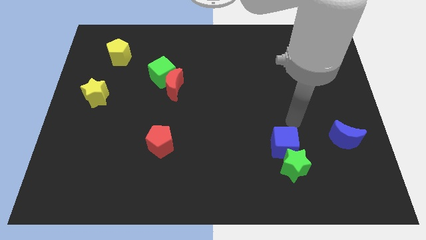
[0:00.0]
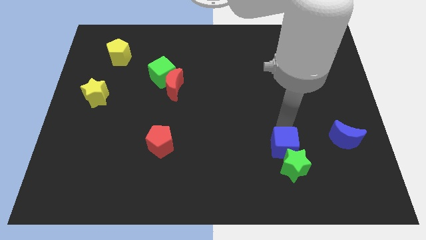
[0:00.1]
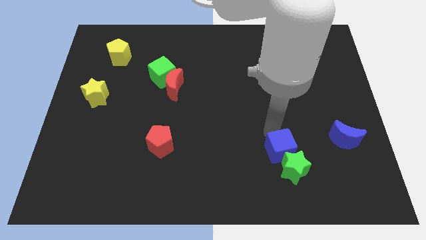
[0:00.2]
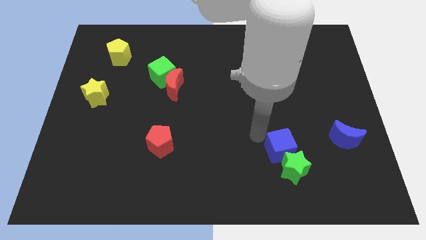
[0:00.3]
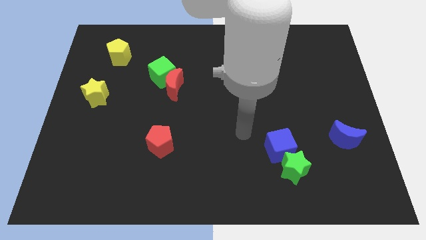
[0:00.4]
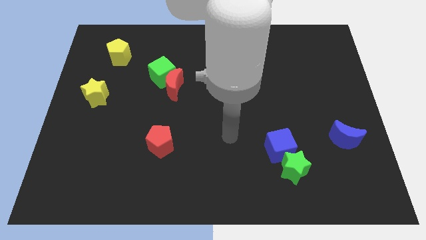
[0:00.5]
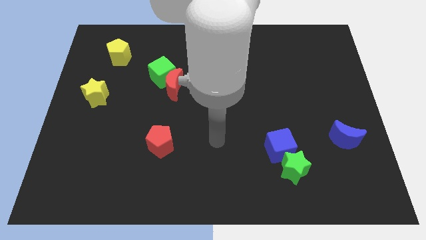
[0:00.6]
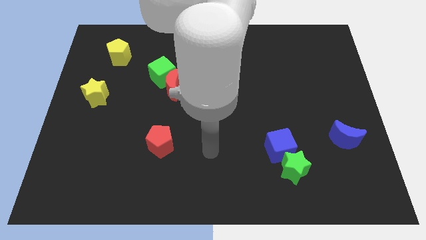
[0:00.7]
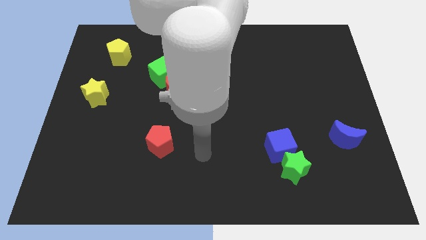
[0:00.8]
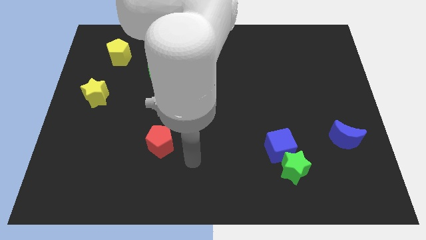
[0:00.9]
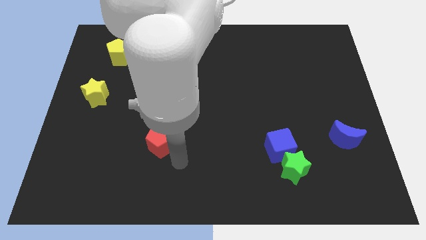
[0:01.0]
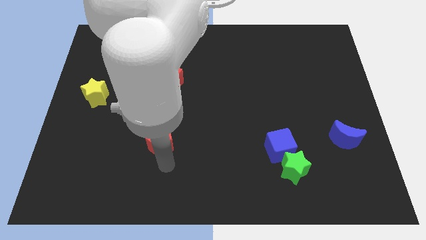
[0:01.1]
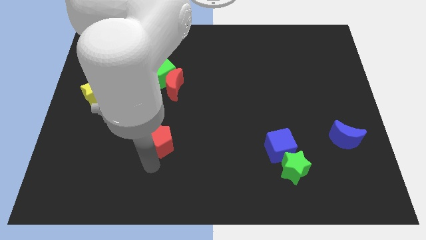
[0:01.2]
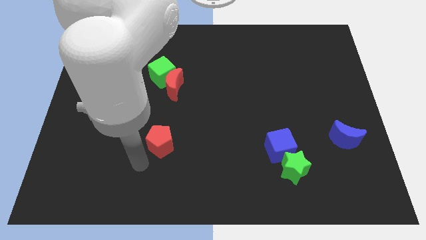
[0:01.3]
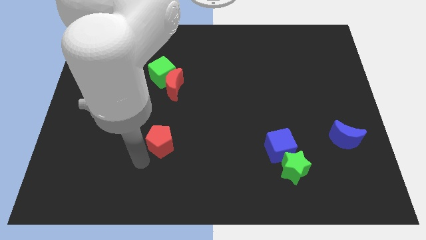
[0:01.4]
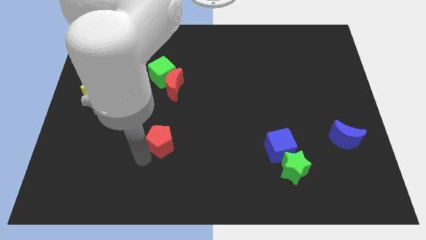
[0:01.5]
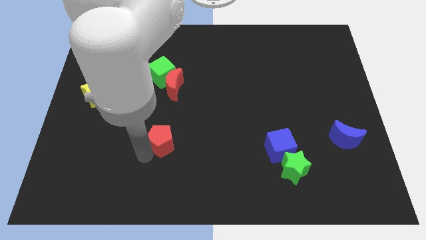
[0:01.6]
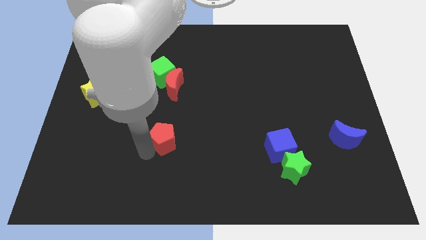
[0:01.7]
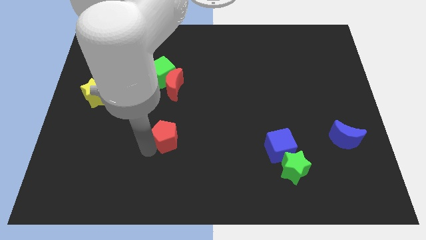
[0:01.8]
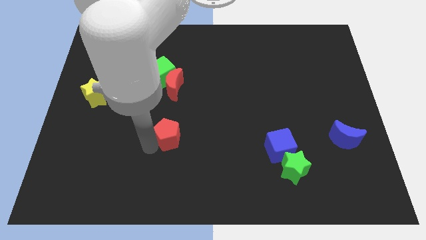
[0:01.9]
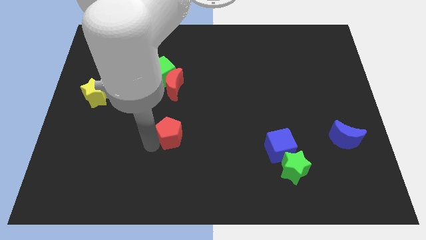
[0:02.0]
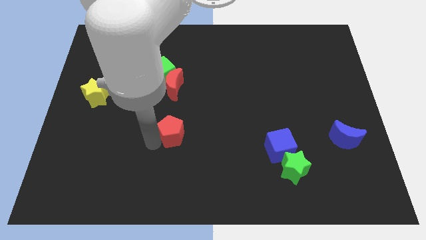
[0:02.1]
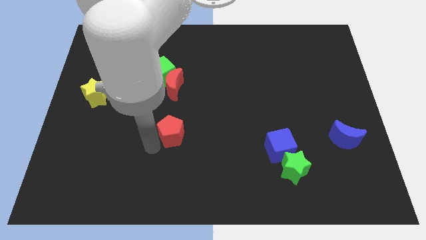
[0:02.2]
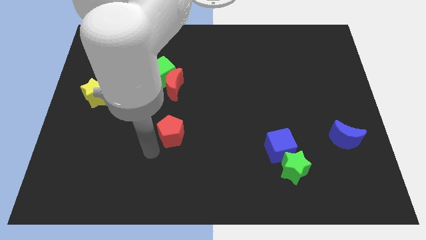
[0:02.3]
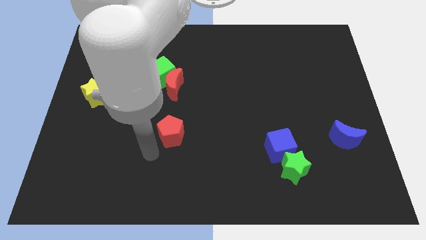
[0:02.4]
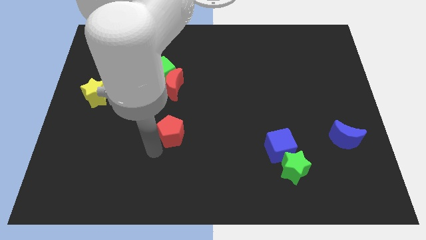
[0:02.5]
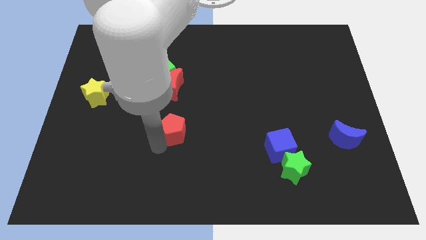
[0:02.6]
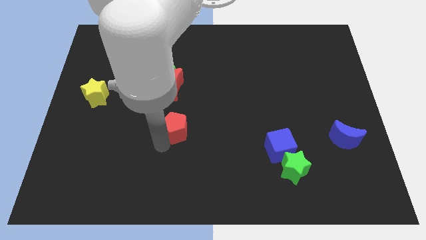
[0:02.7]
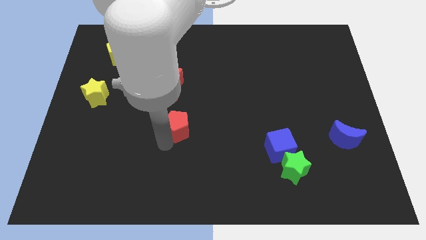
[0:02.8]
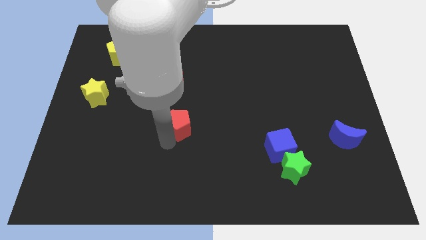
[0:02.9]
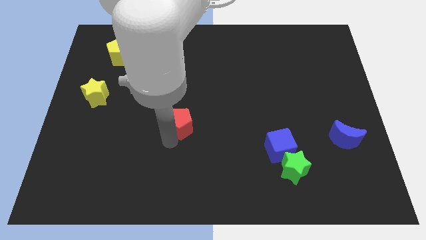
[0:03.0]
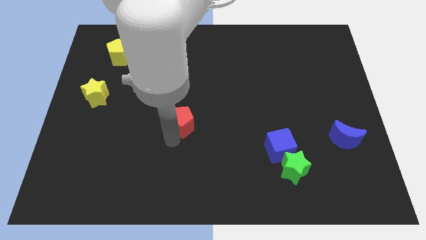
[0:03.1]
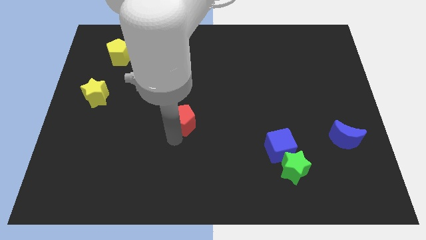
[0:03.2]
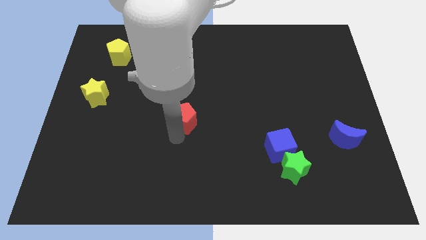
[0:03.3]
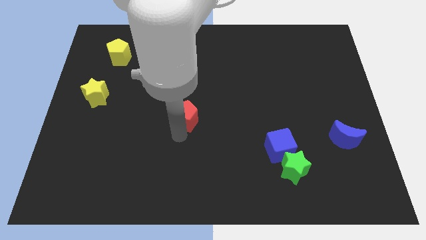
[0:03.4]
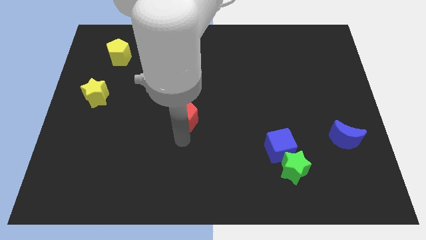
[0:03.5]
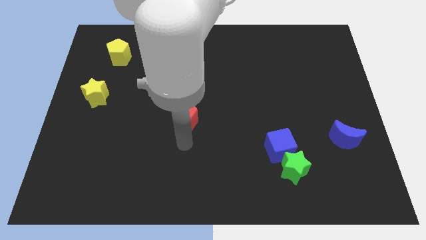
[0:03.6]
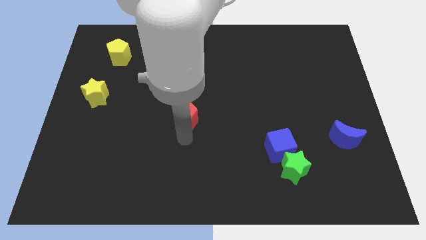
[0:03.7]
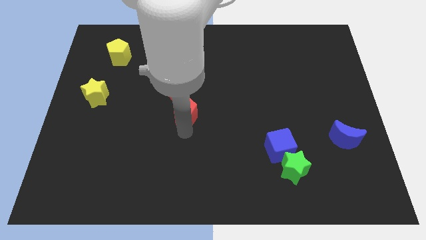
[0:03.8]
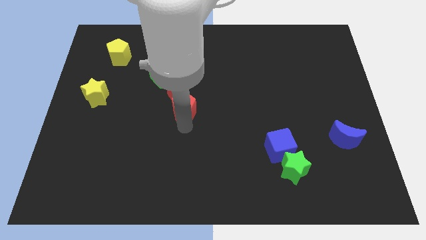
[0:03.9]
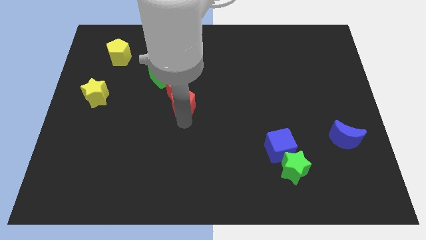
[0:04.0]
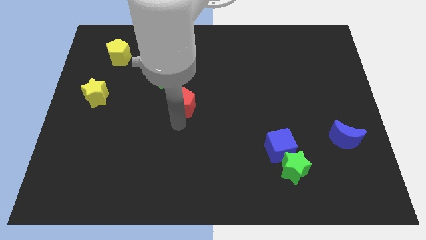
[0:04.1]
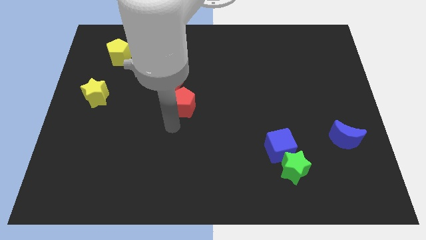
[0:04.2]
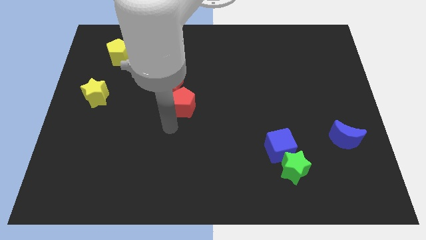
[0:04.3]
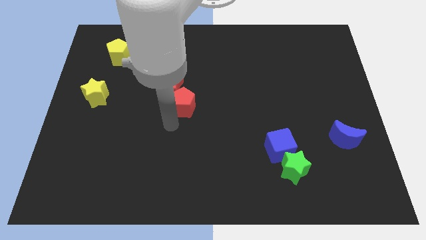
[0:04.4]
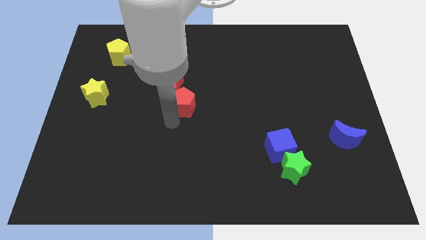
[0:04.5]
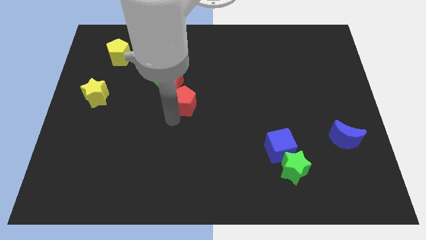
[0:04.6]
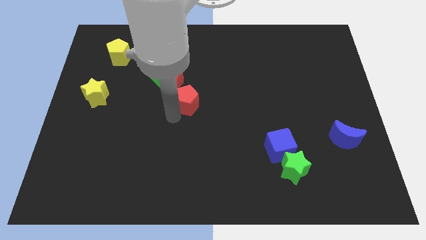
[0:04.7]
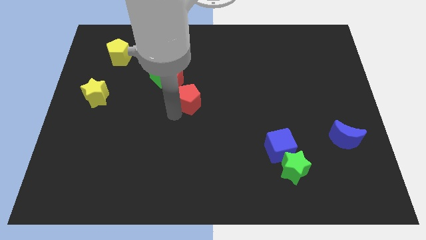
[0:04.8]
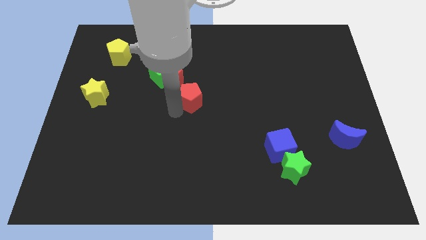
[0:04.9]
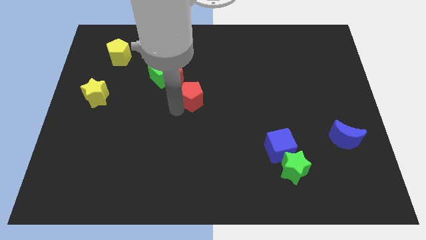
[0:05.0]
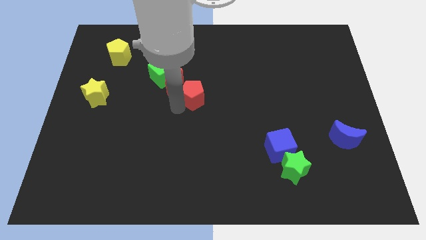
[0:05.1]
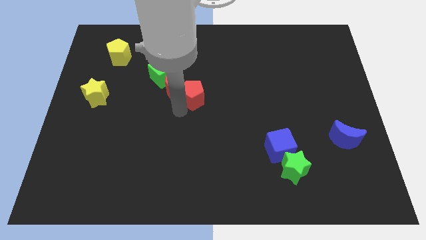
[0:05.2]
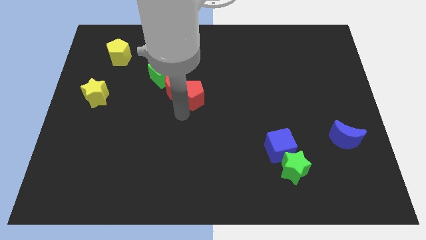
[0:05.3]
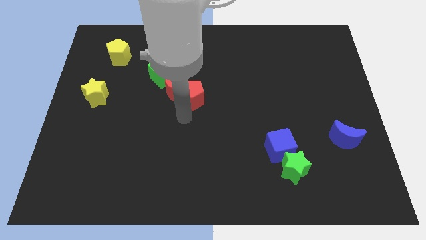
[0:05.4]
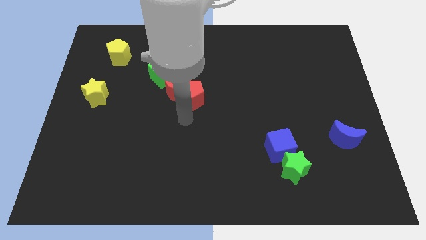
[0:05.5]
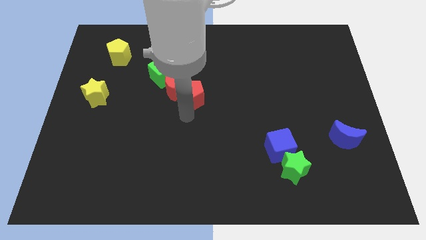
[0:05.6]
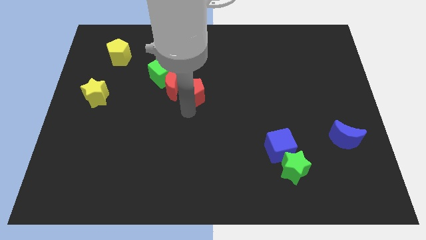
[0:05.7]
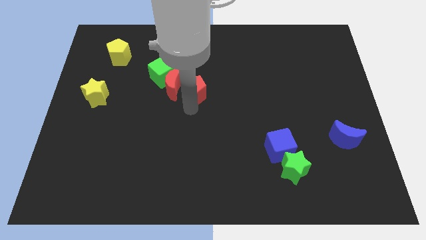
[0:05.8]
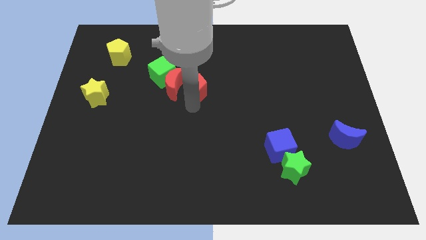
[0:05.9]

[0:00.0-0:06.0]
put the red pentagon to the top right of the red moon

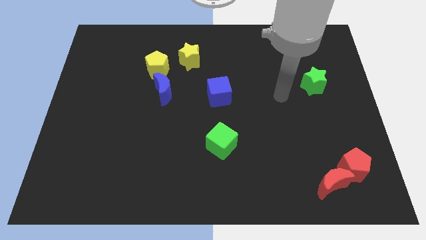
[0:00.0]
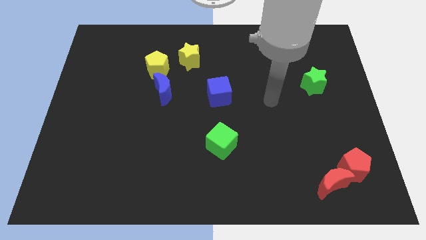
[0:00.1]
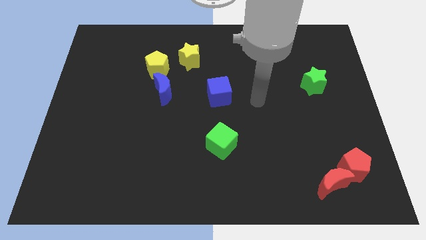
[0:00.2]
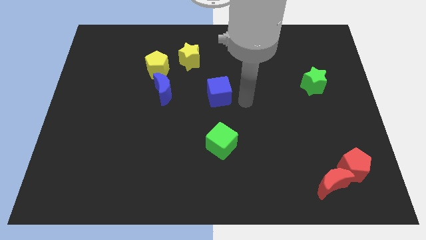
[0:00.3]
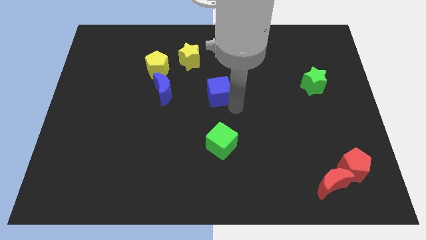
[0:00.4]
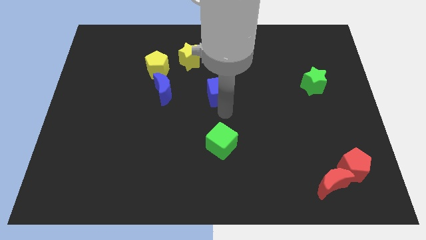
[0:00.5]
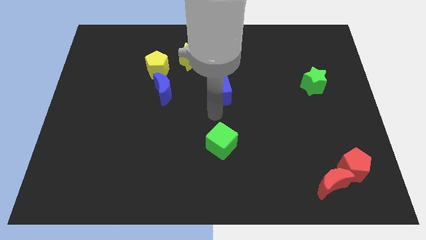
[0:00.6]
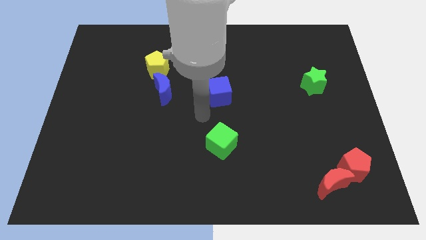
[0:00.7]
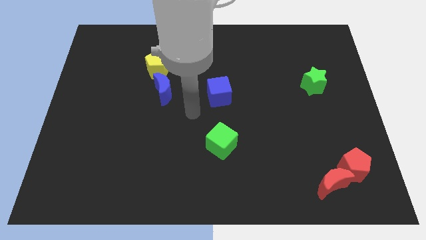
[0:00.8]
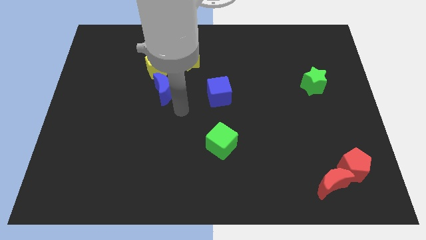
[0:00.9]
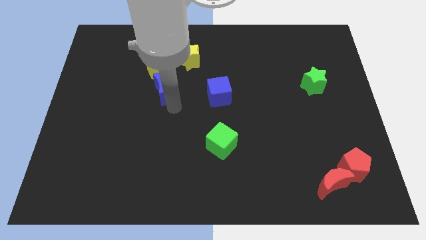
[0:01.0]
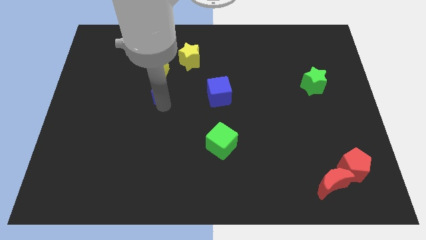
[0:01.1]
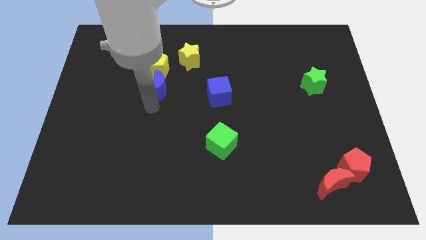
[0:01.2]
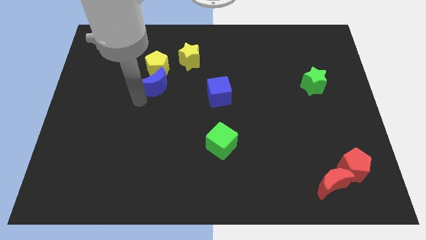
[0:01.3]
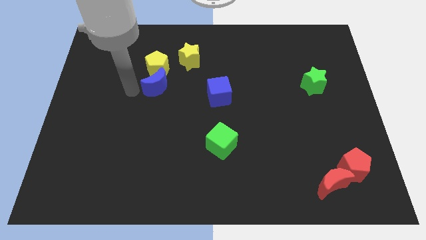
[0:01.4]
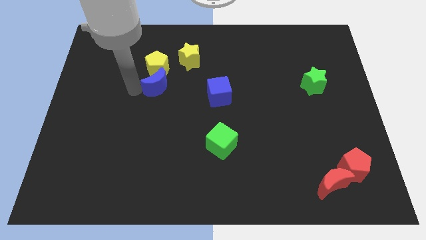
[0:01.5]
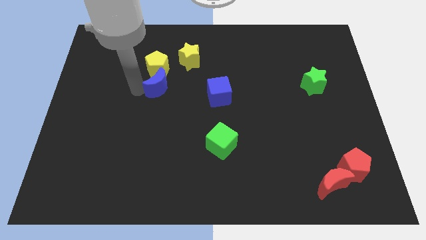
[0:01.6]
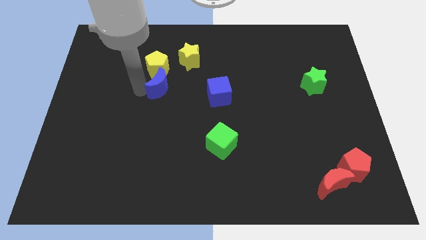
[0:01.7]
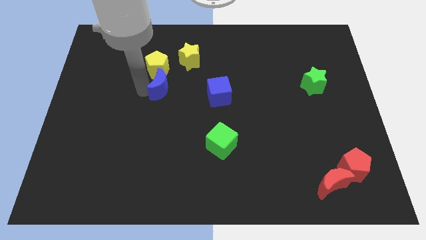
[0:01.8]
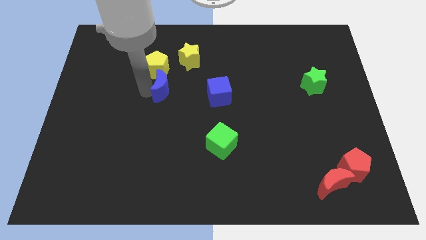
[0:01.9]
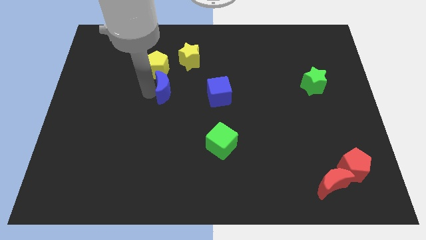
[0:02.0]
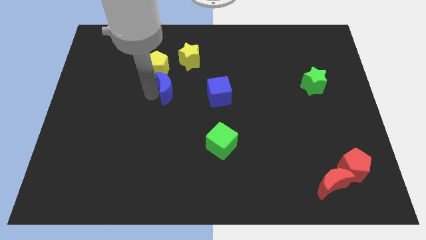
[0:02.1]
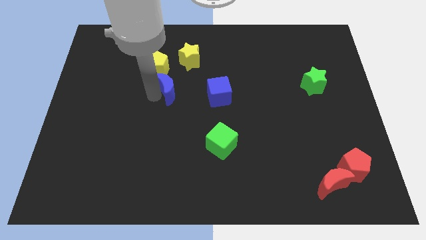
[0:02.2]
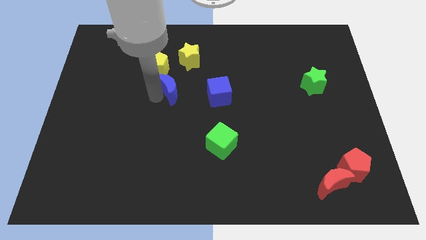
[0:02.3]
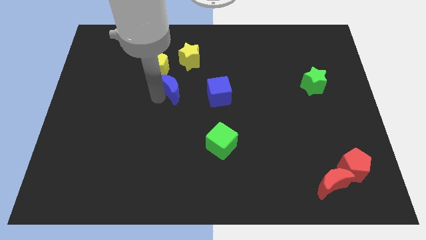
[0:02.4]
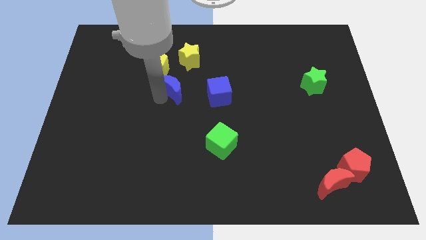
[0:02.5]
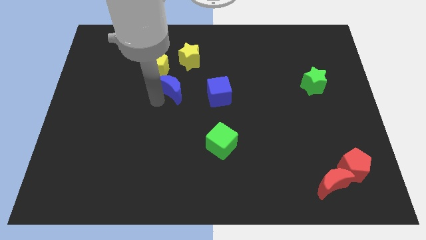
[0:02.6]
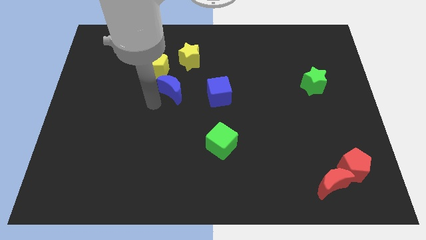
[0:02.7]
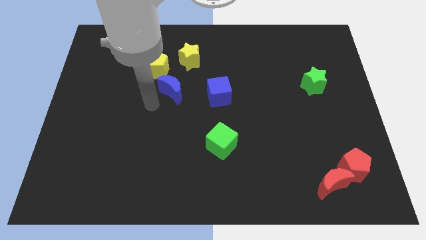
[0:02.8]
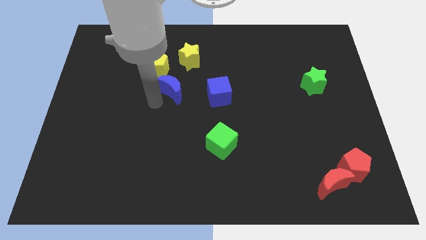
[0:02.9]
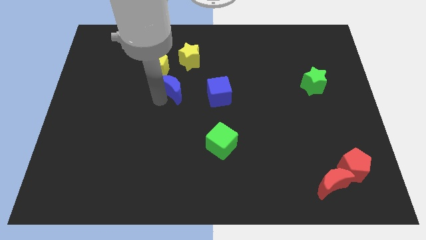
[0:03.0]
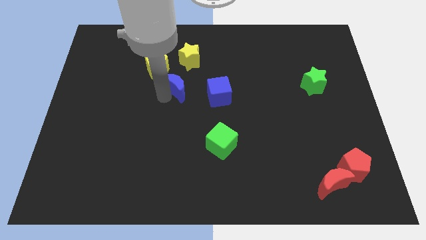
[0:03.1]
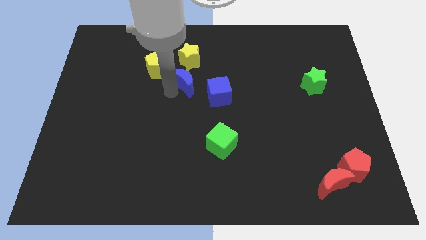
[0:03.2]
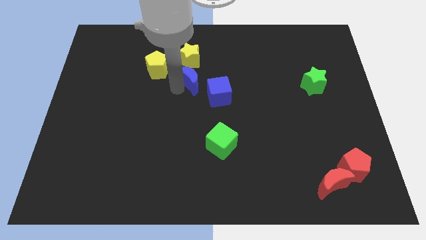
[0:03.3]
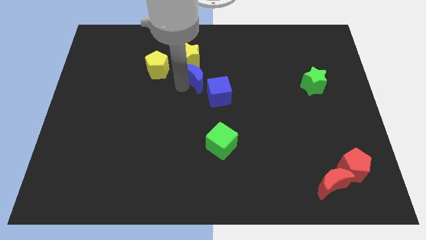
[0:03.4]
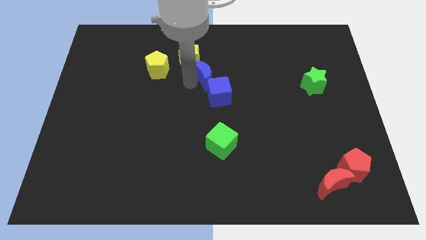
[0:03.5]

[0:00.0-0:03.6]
push the blue moon to the top of the blue cube
